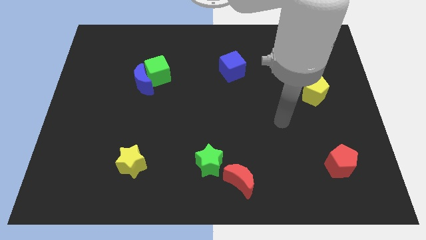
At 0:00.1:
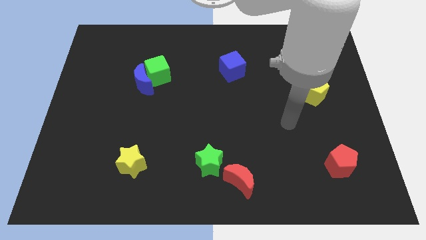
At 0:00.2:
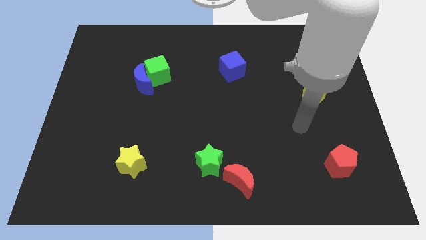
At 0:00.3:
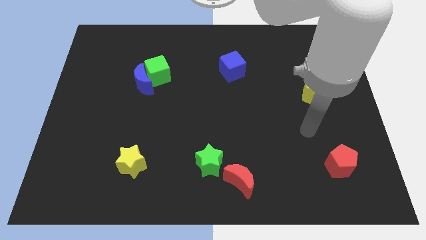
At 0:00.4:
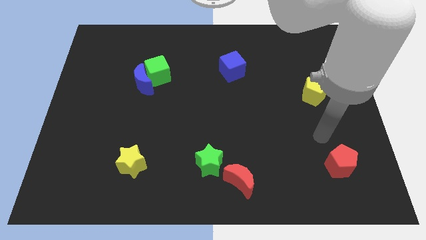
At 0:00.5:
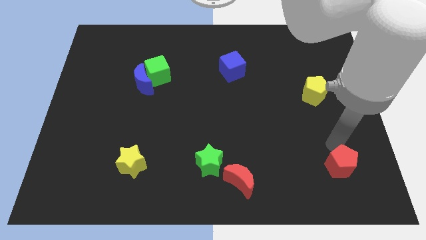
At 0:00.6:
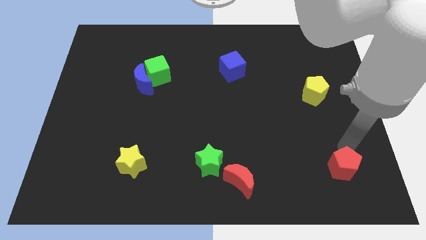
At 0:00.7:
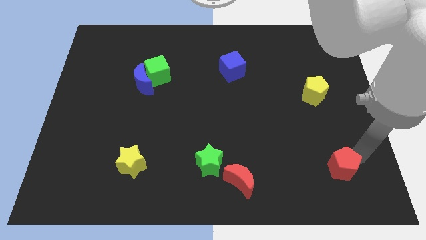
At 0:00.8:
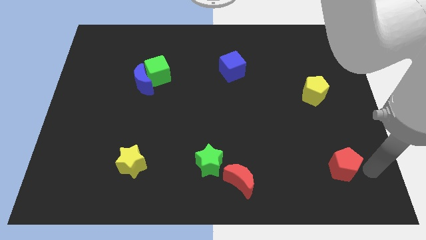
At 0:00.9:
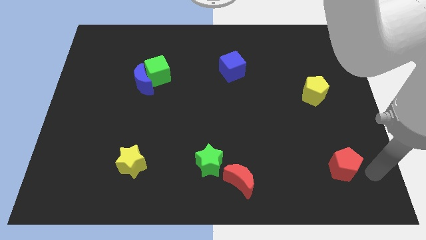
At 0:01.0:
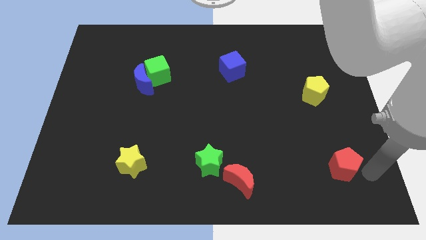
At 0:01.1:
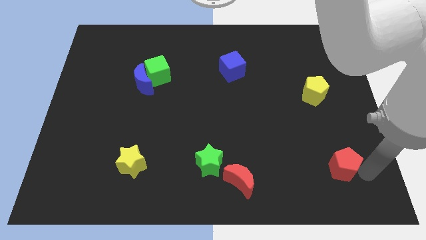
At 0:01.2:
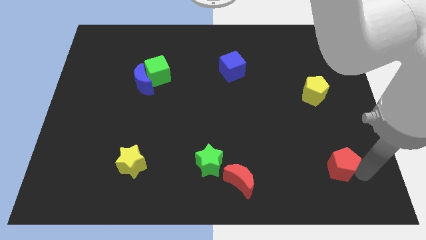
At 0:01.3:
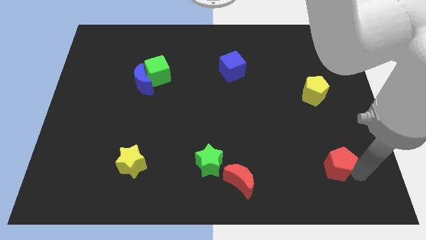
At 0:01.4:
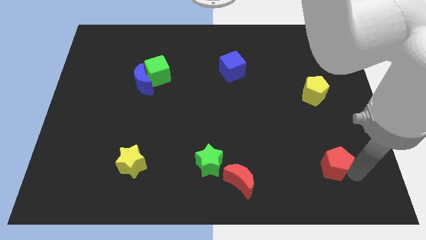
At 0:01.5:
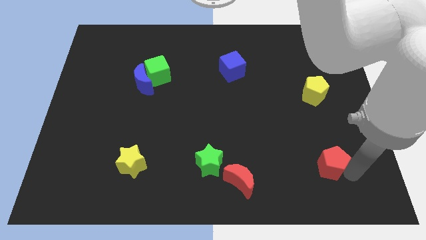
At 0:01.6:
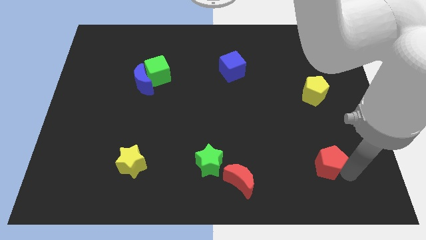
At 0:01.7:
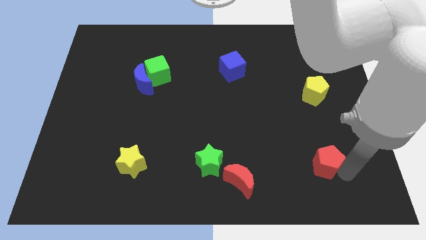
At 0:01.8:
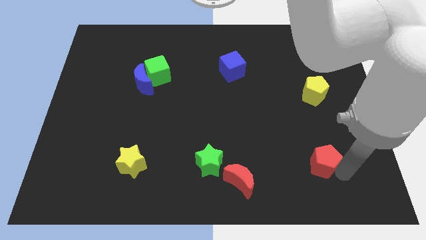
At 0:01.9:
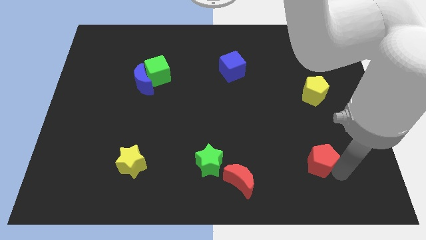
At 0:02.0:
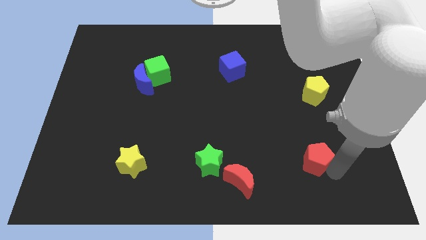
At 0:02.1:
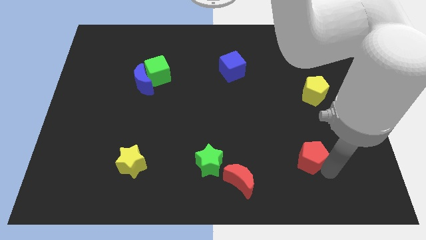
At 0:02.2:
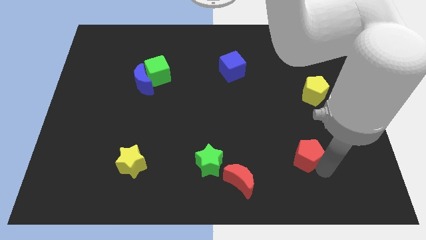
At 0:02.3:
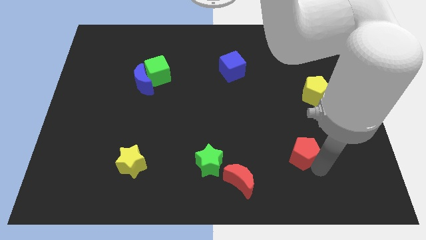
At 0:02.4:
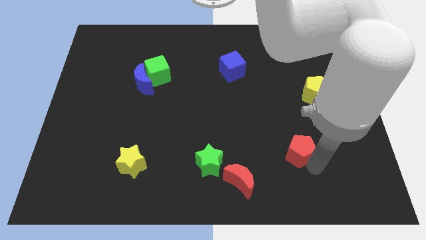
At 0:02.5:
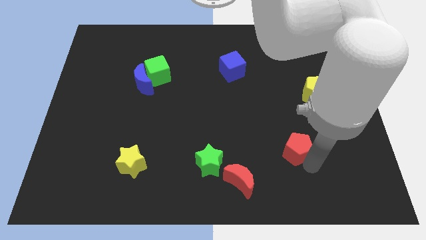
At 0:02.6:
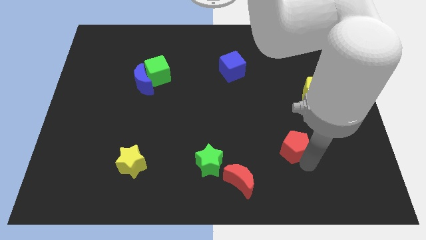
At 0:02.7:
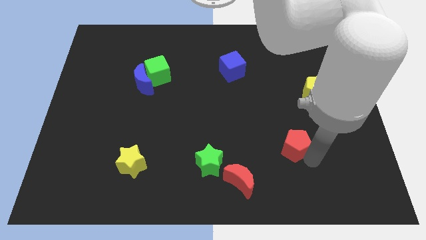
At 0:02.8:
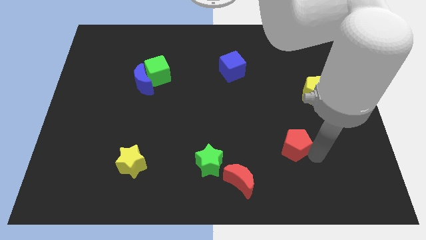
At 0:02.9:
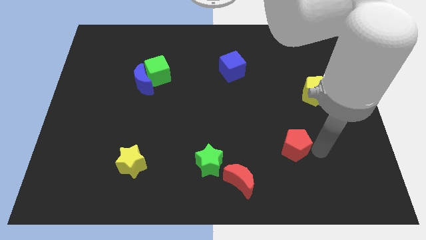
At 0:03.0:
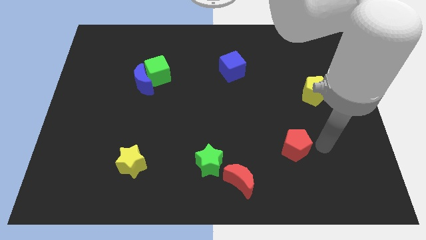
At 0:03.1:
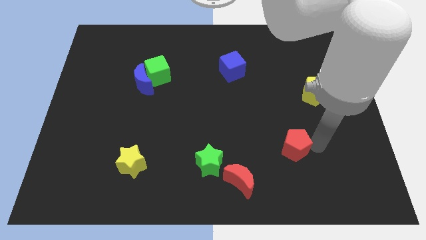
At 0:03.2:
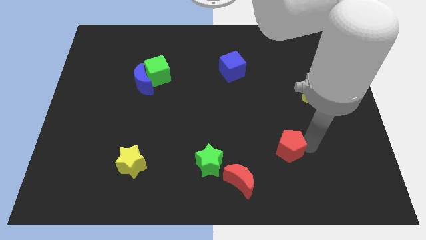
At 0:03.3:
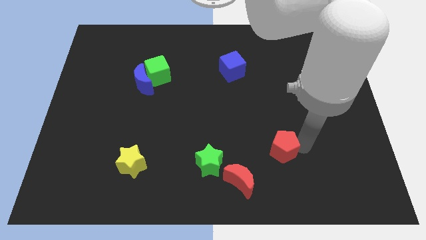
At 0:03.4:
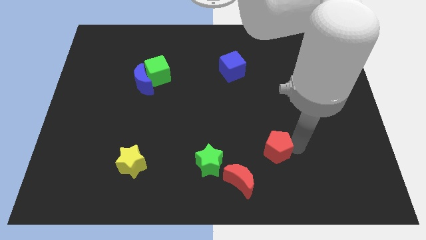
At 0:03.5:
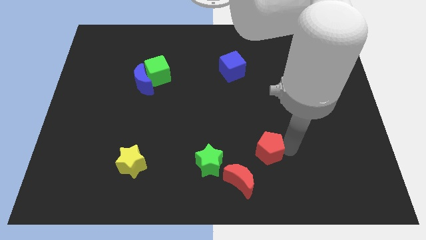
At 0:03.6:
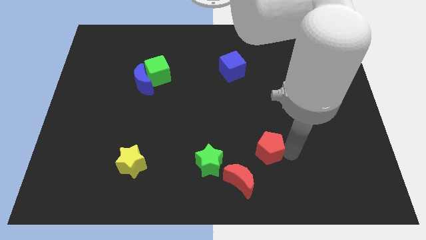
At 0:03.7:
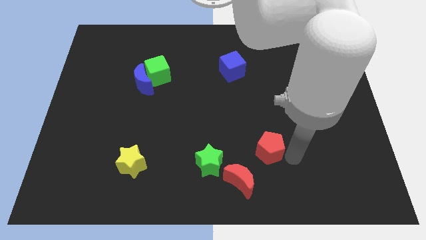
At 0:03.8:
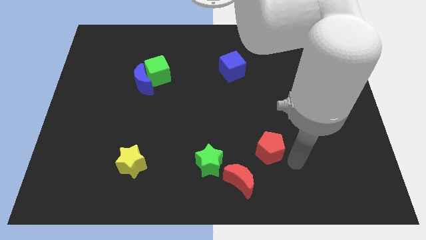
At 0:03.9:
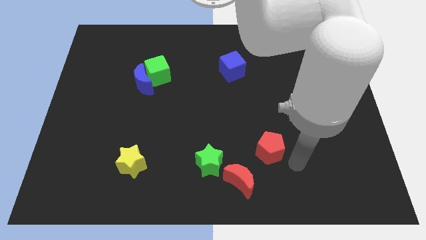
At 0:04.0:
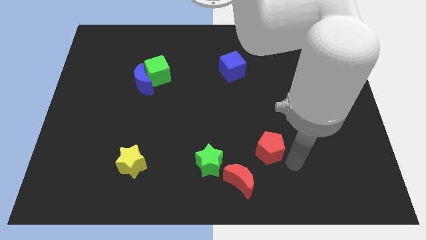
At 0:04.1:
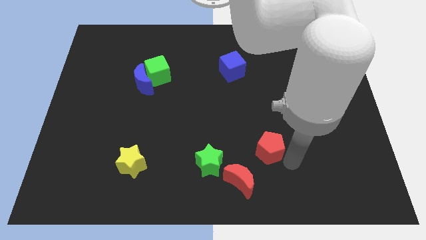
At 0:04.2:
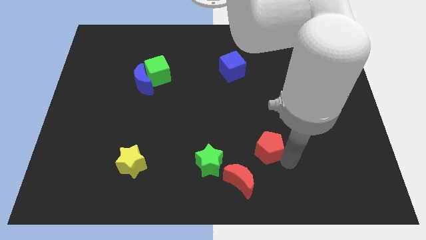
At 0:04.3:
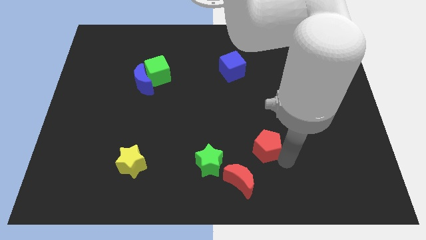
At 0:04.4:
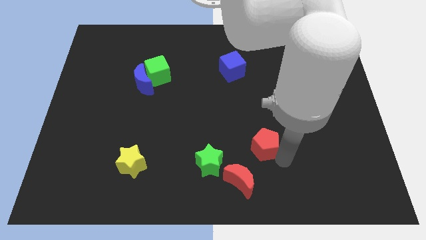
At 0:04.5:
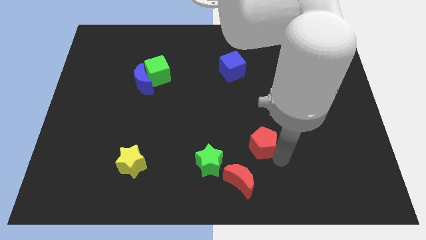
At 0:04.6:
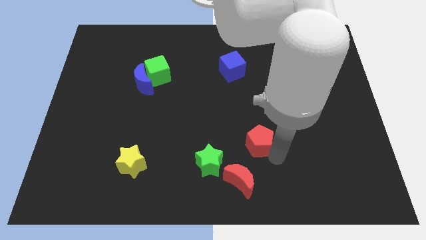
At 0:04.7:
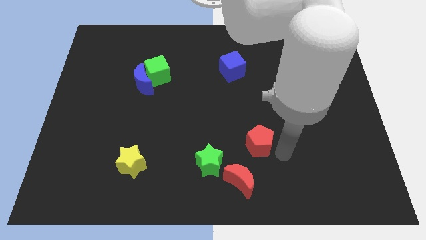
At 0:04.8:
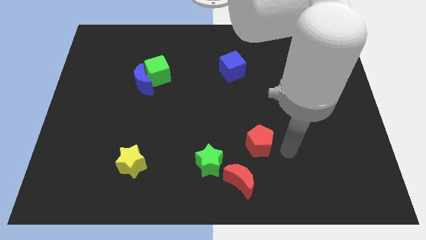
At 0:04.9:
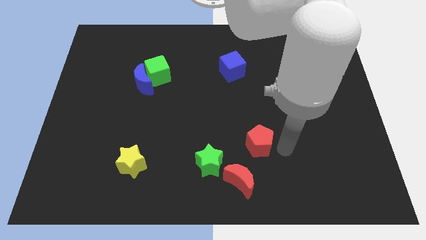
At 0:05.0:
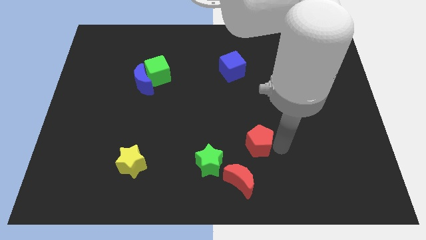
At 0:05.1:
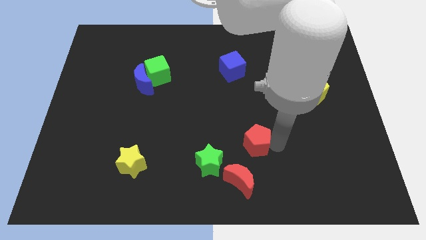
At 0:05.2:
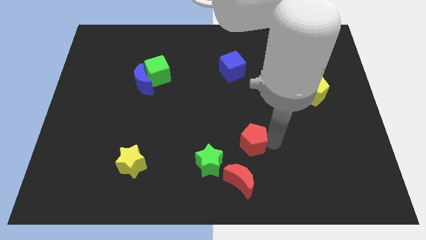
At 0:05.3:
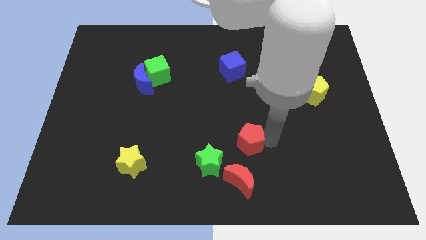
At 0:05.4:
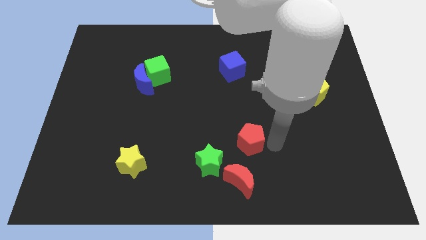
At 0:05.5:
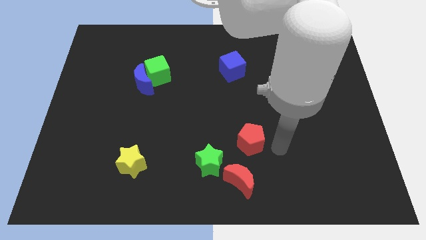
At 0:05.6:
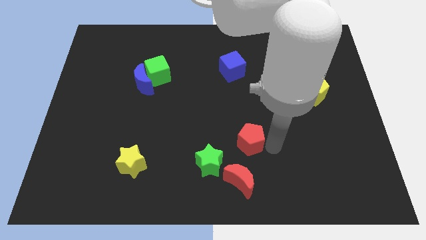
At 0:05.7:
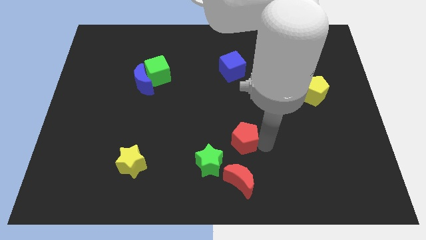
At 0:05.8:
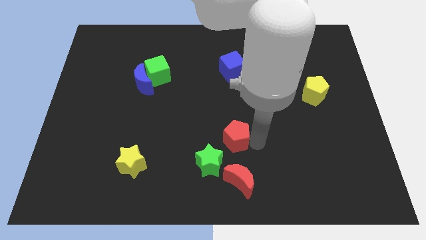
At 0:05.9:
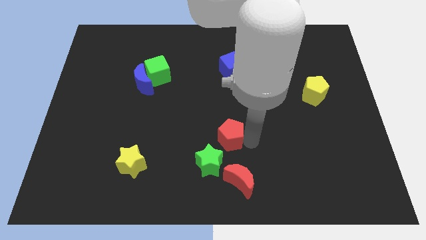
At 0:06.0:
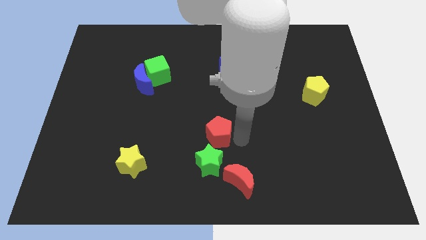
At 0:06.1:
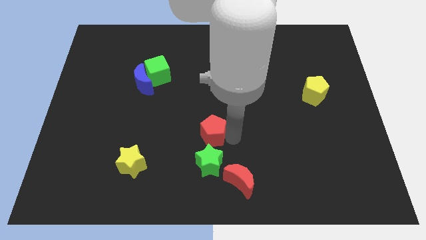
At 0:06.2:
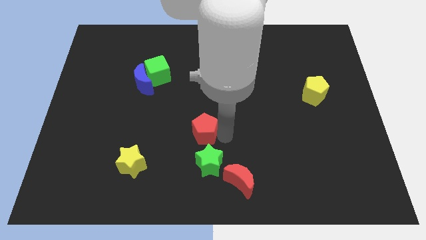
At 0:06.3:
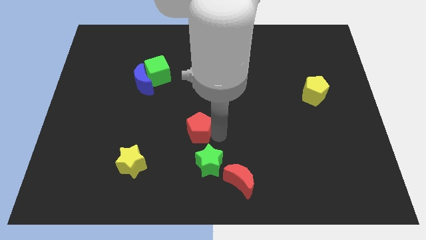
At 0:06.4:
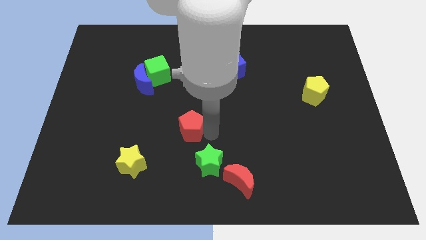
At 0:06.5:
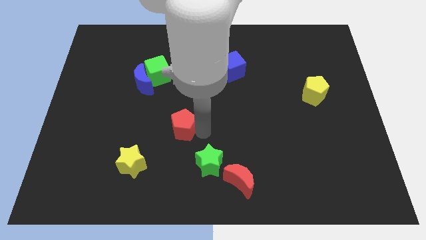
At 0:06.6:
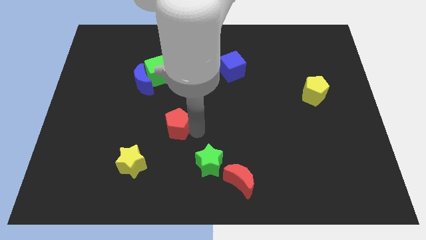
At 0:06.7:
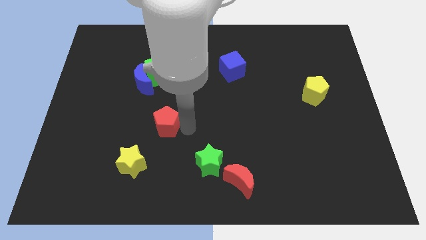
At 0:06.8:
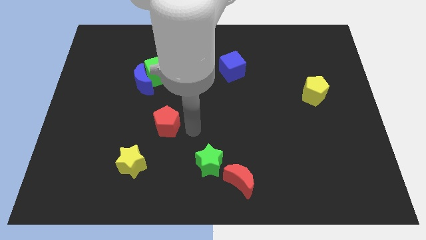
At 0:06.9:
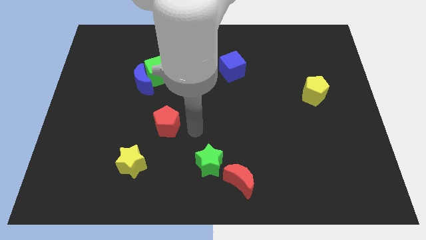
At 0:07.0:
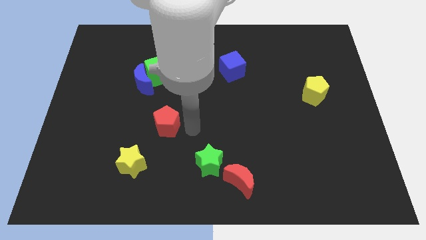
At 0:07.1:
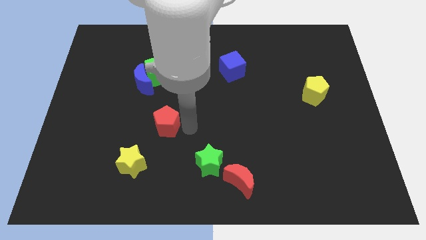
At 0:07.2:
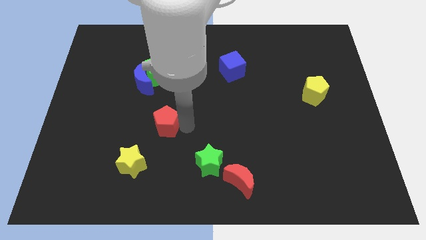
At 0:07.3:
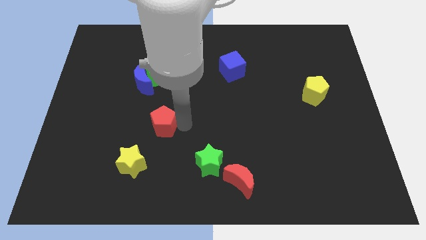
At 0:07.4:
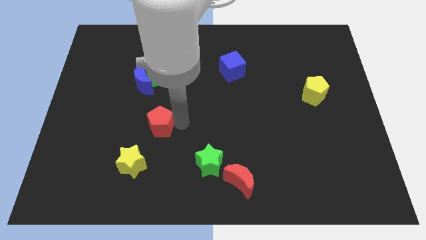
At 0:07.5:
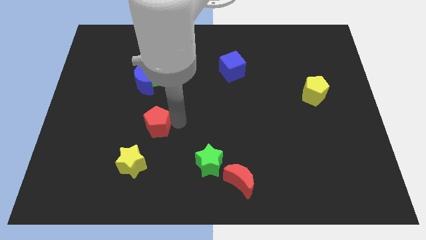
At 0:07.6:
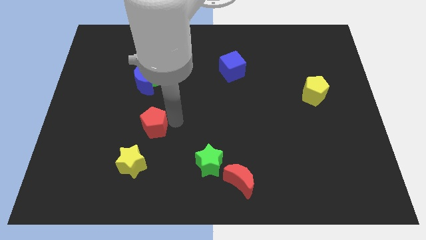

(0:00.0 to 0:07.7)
slide the red pentagon to the bottom of the blue moon
